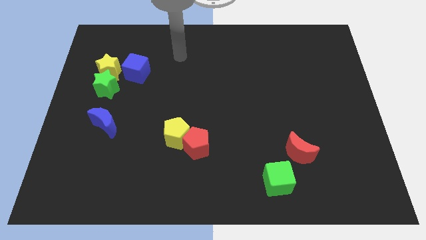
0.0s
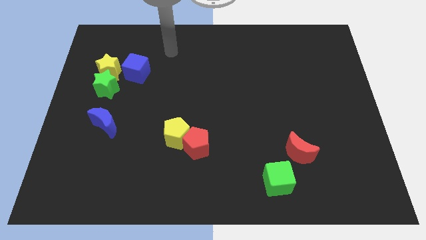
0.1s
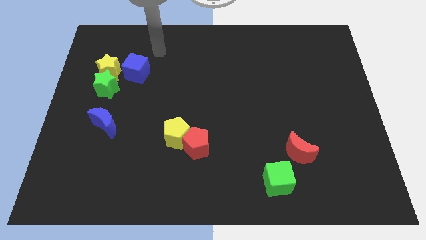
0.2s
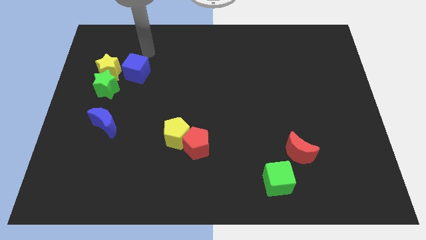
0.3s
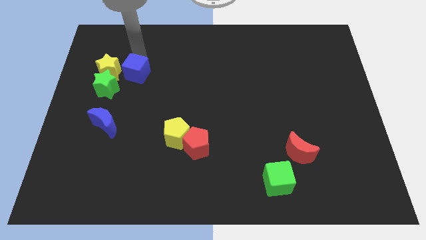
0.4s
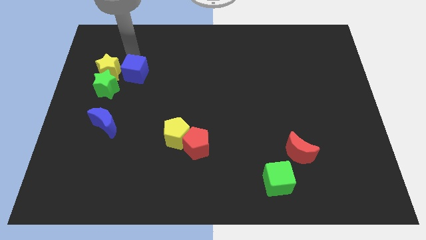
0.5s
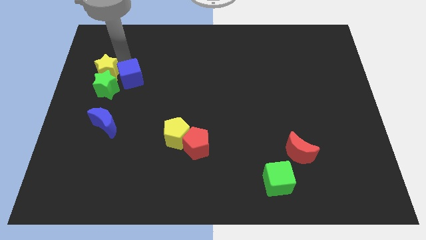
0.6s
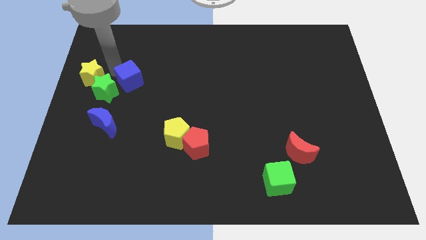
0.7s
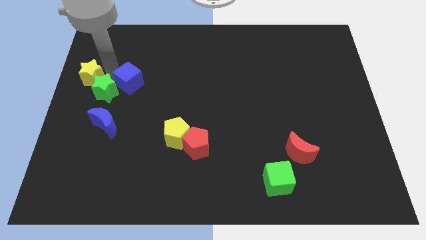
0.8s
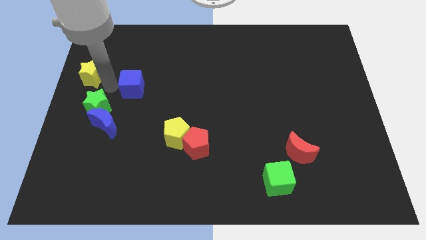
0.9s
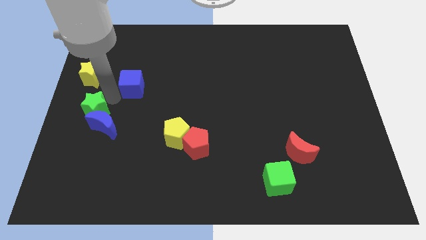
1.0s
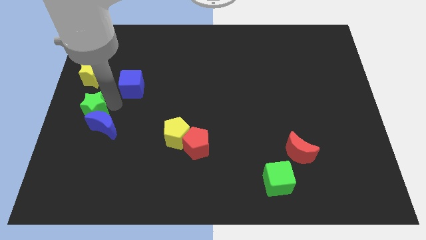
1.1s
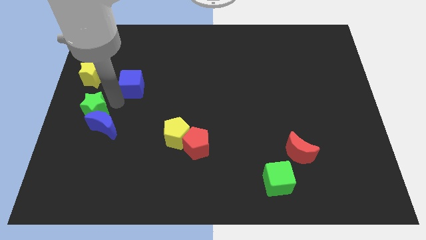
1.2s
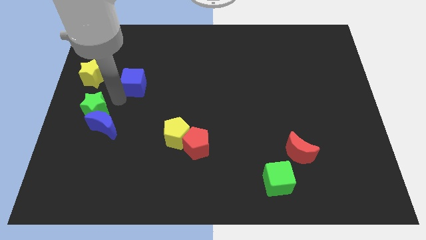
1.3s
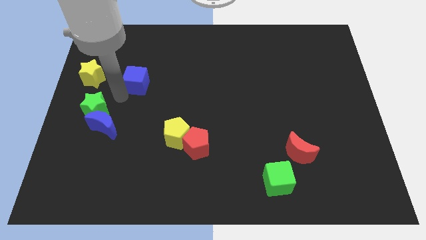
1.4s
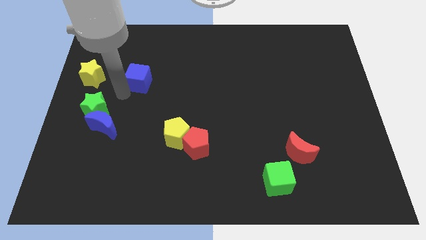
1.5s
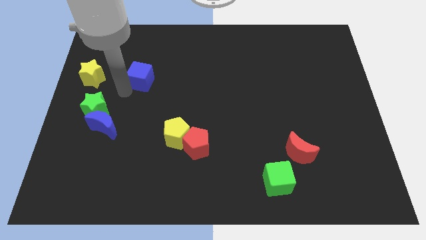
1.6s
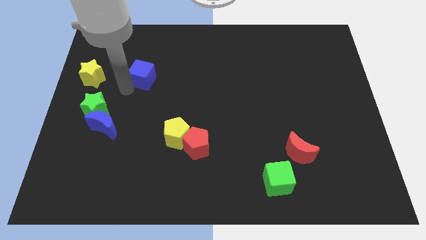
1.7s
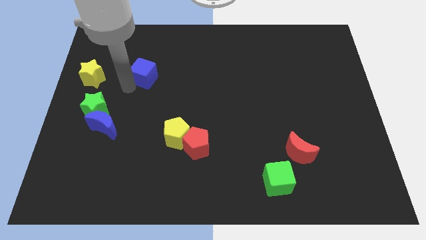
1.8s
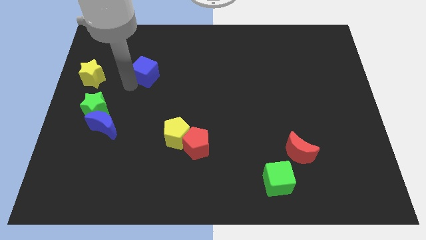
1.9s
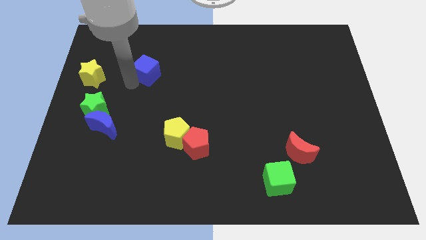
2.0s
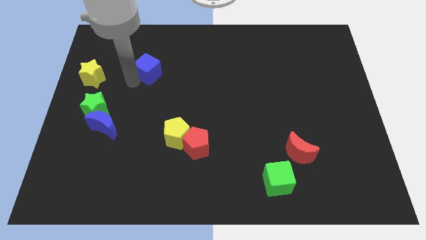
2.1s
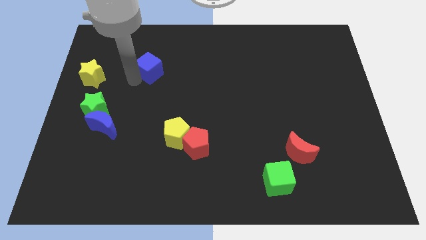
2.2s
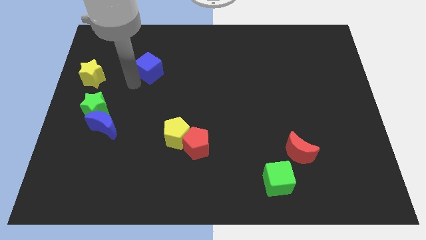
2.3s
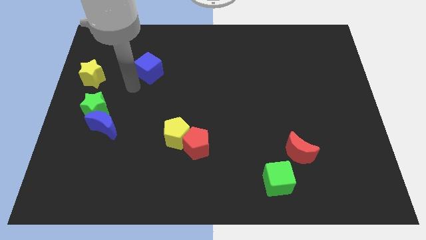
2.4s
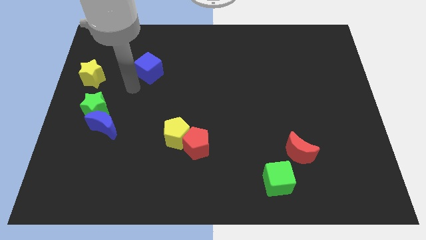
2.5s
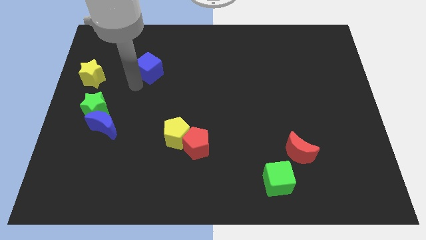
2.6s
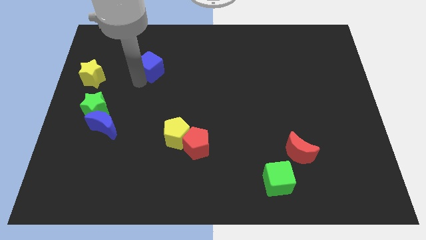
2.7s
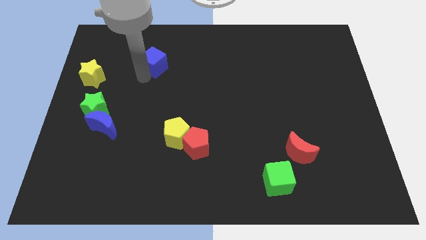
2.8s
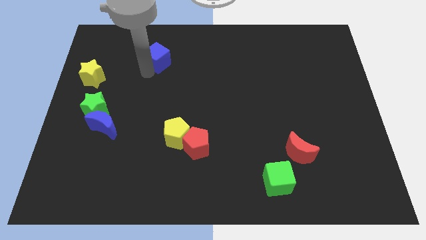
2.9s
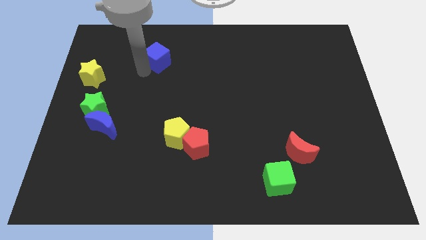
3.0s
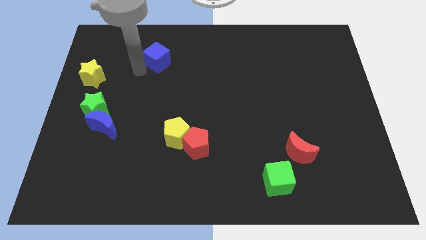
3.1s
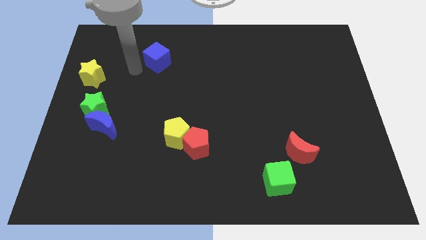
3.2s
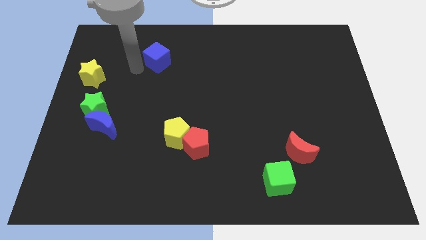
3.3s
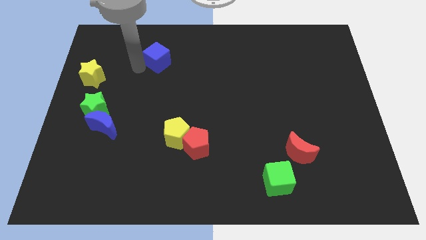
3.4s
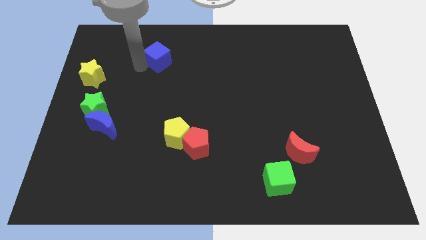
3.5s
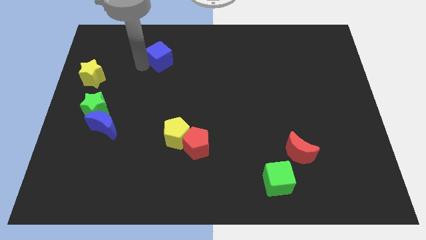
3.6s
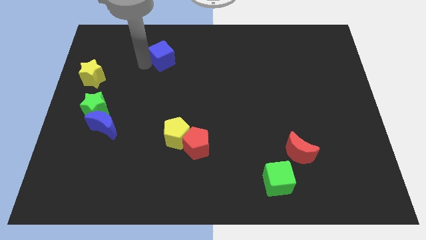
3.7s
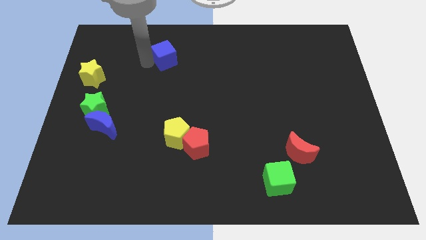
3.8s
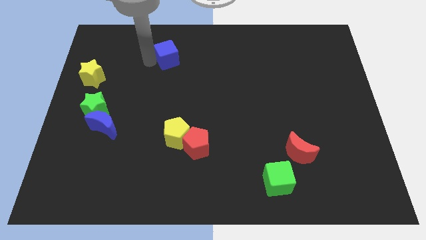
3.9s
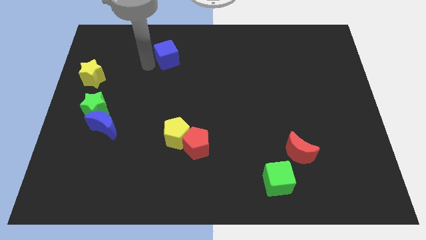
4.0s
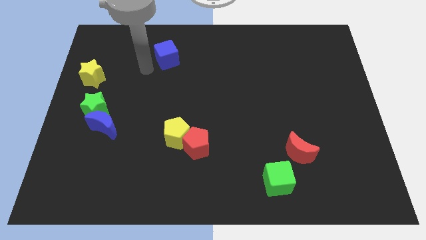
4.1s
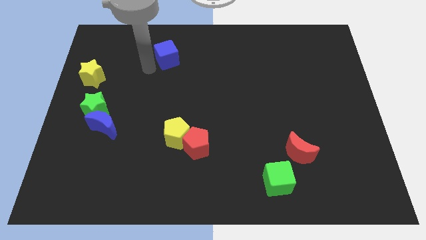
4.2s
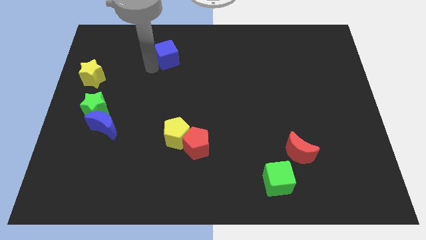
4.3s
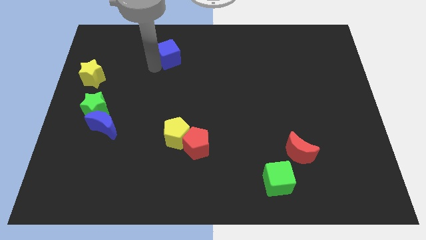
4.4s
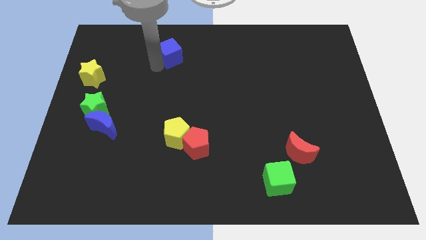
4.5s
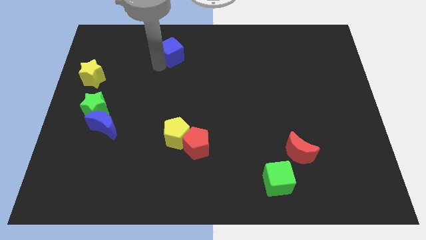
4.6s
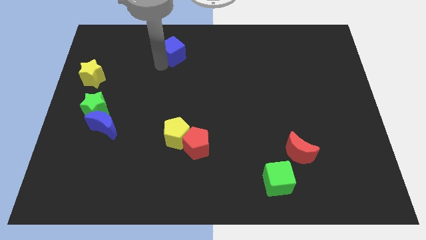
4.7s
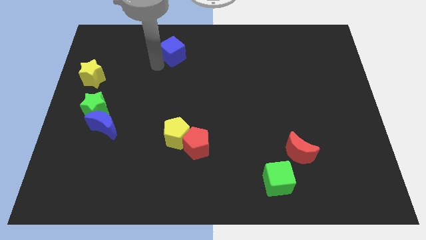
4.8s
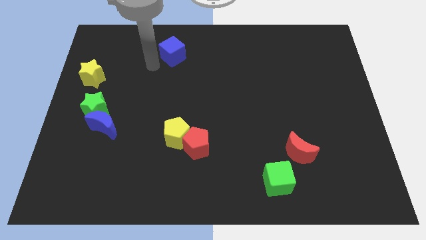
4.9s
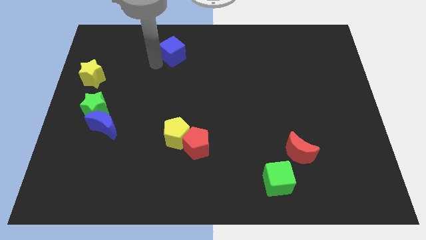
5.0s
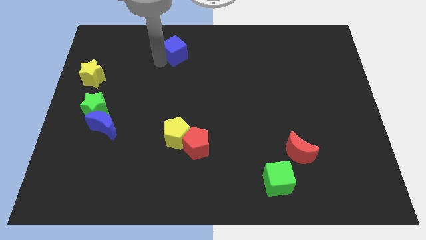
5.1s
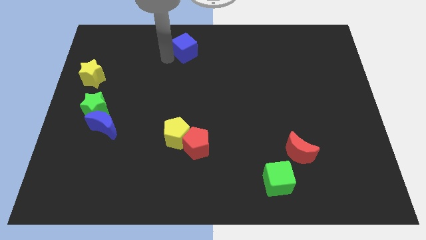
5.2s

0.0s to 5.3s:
move the blue cube to the top

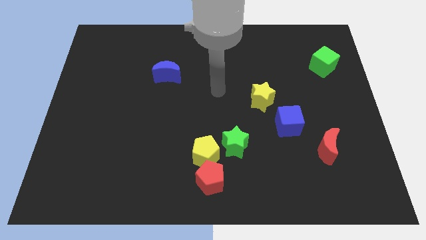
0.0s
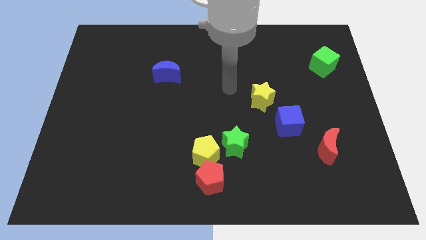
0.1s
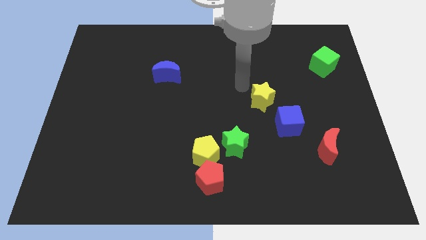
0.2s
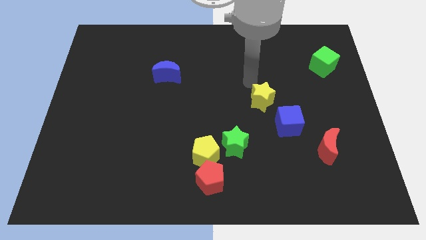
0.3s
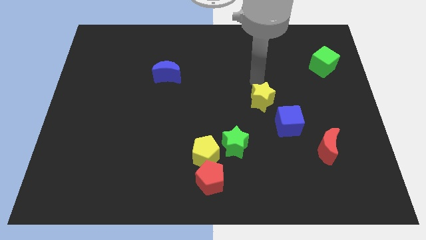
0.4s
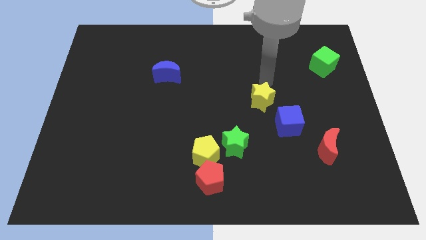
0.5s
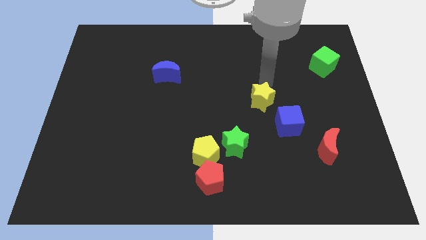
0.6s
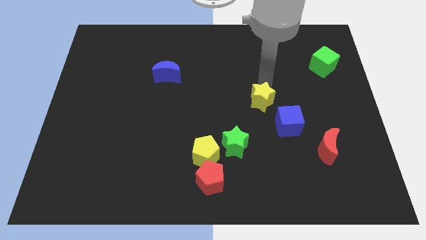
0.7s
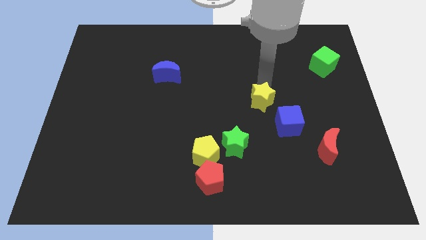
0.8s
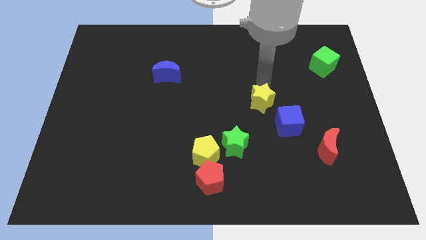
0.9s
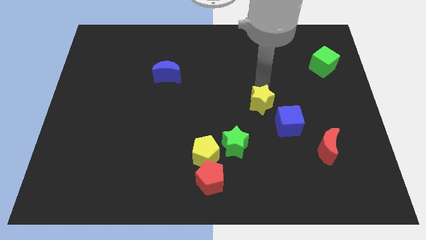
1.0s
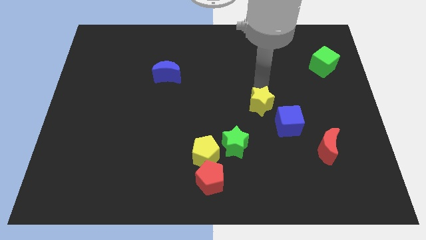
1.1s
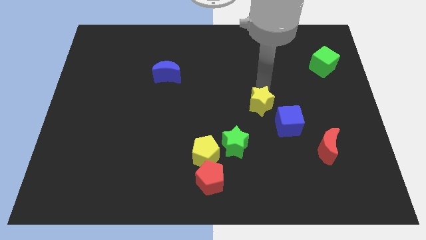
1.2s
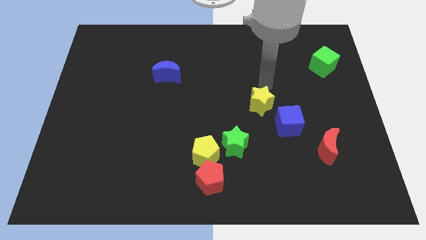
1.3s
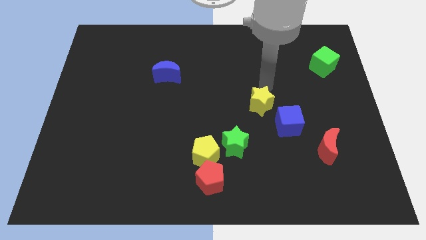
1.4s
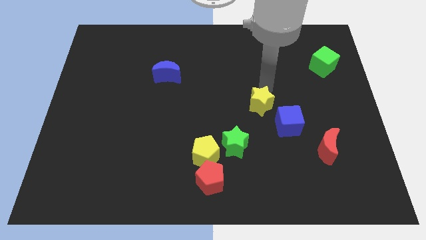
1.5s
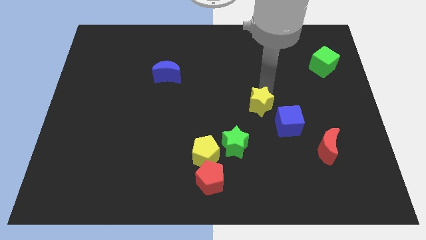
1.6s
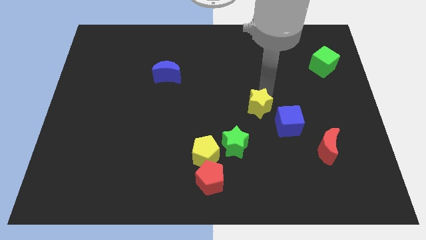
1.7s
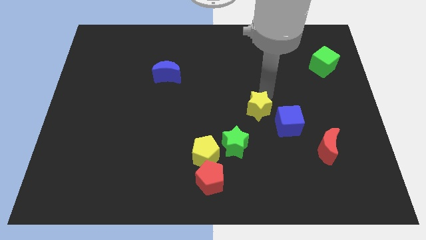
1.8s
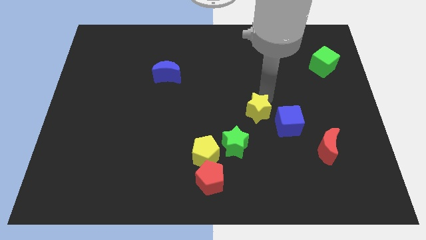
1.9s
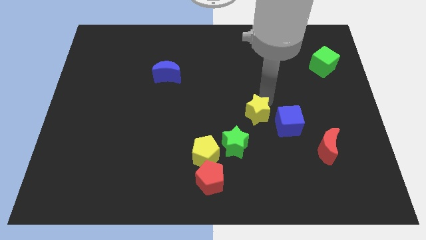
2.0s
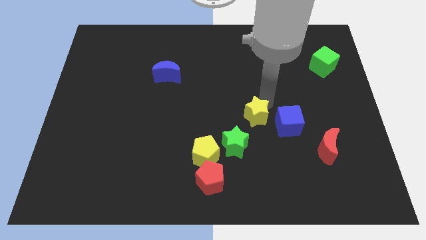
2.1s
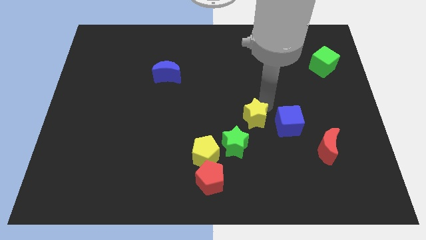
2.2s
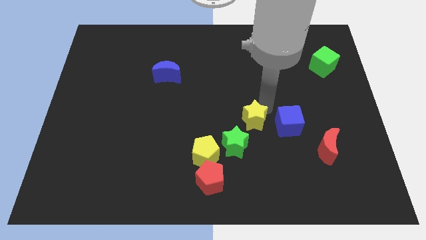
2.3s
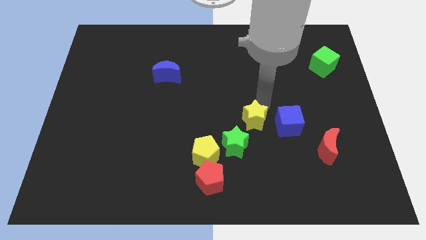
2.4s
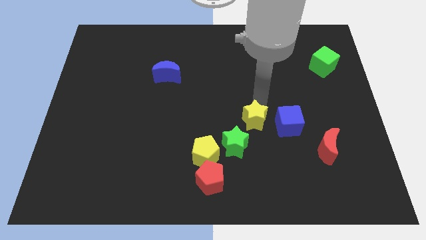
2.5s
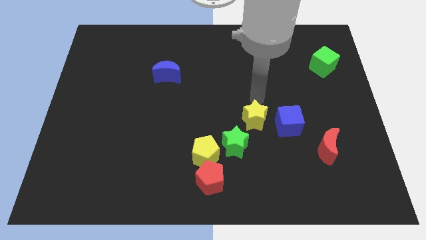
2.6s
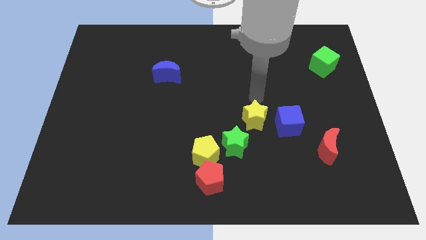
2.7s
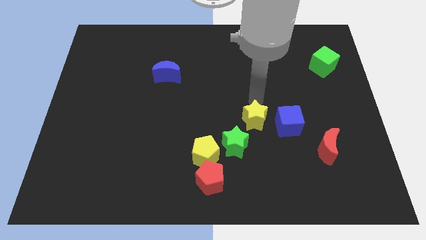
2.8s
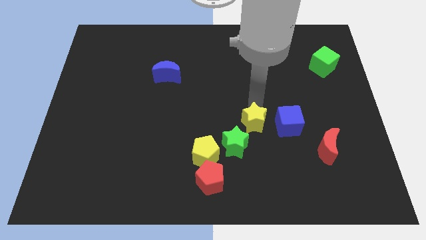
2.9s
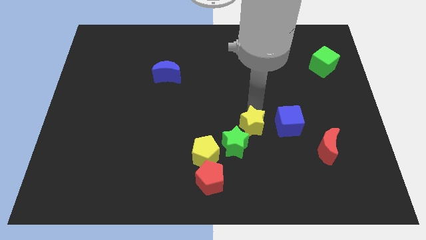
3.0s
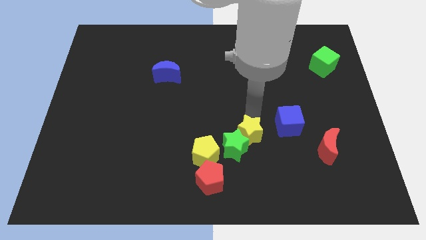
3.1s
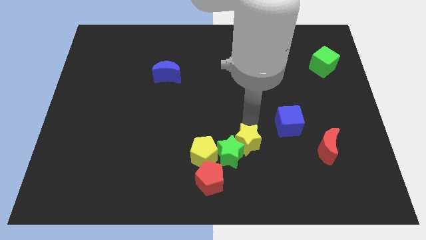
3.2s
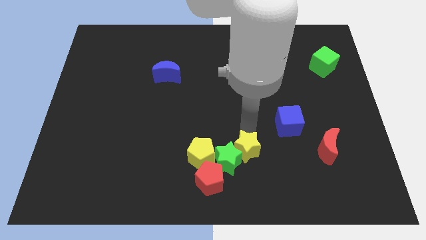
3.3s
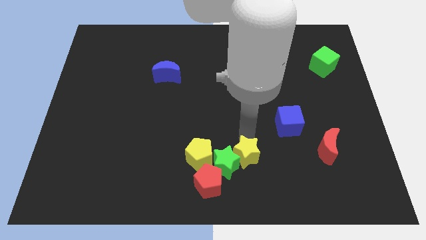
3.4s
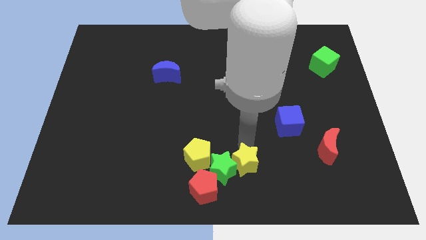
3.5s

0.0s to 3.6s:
push the yellow star to the bottom side
